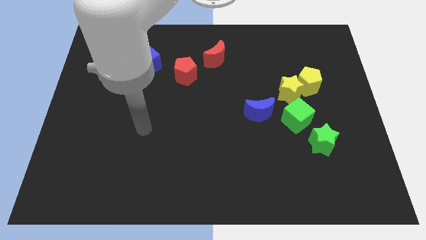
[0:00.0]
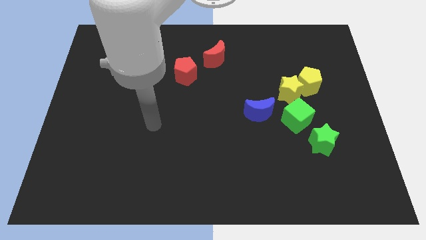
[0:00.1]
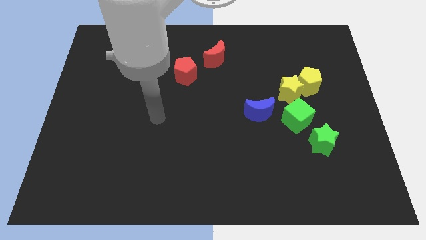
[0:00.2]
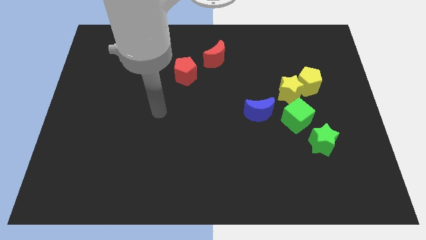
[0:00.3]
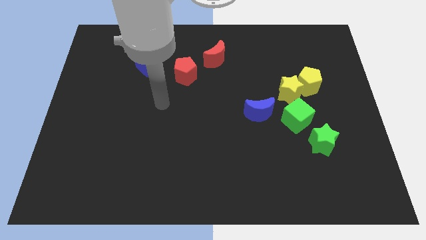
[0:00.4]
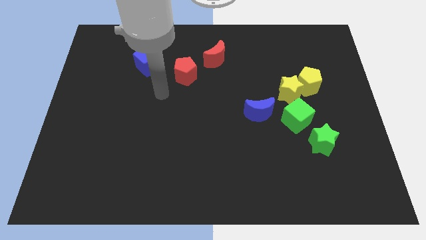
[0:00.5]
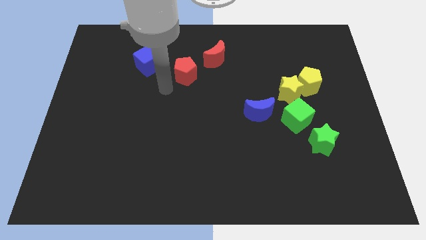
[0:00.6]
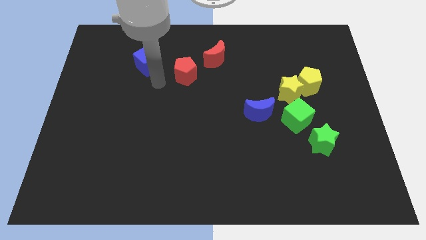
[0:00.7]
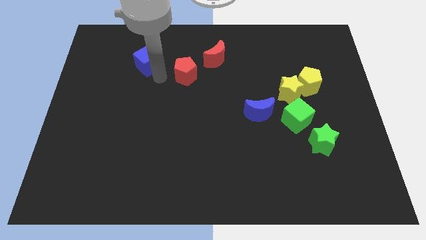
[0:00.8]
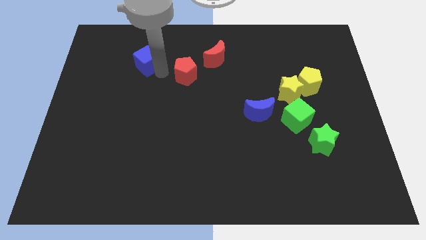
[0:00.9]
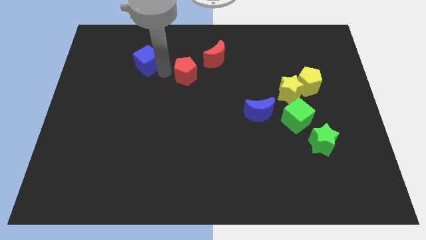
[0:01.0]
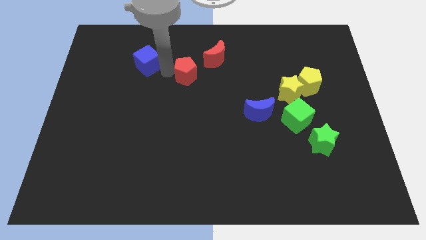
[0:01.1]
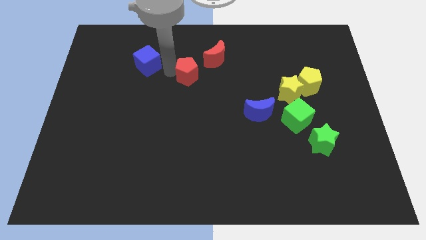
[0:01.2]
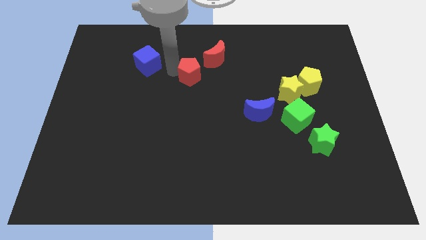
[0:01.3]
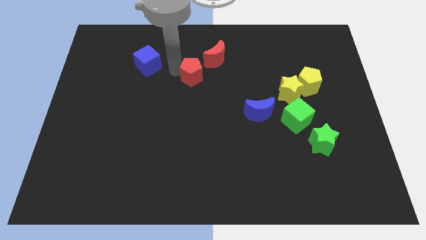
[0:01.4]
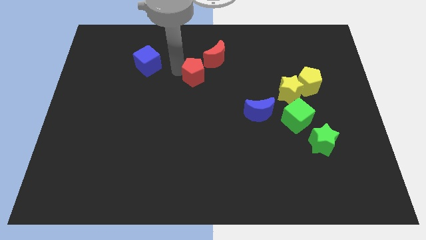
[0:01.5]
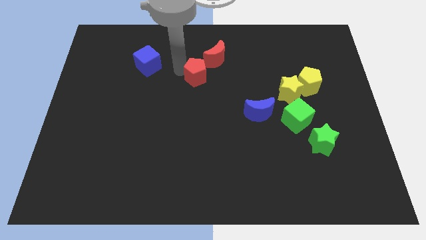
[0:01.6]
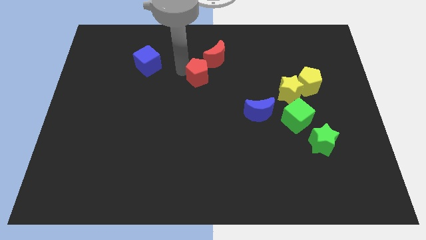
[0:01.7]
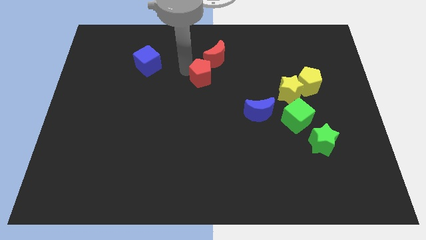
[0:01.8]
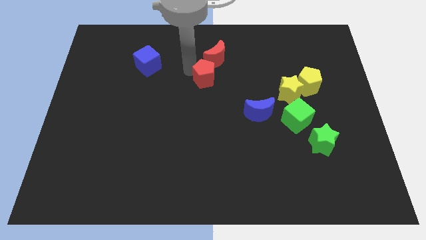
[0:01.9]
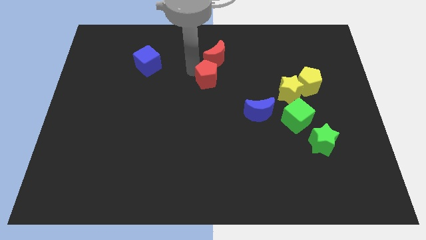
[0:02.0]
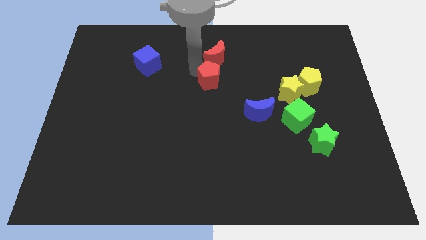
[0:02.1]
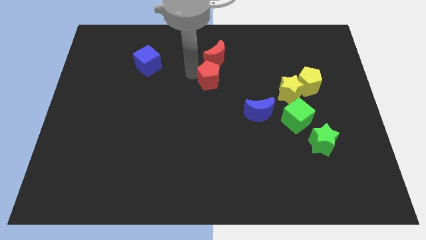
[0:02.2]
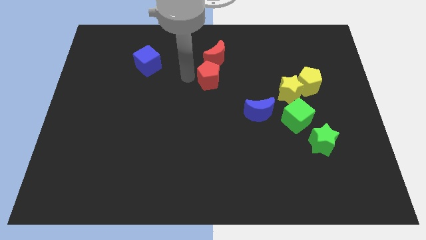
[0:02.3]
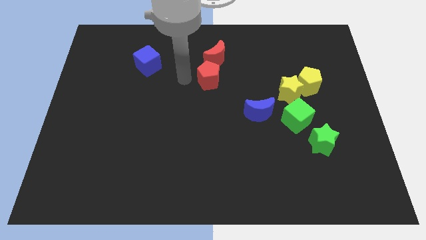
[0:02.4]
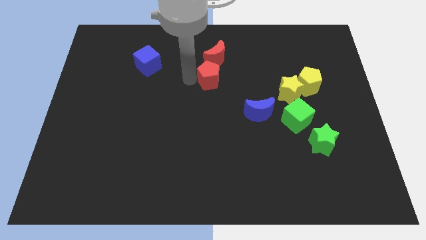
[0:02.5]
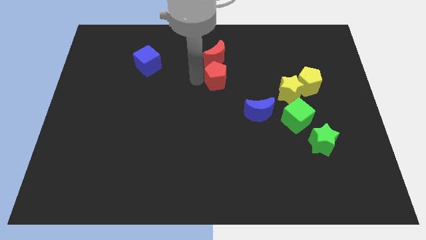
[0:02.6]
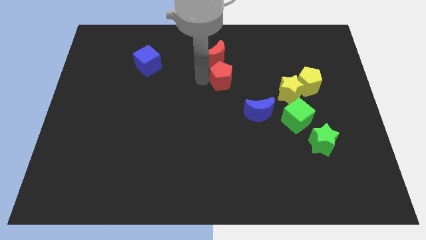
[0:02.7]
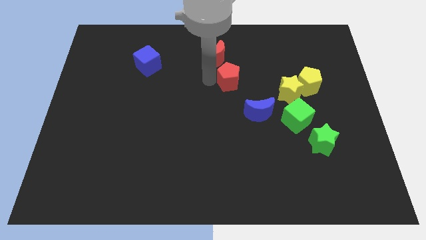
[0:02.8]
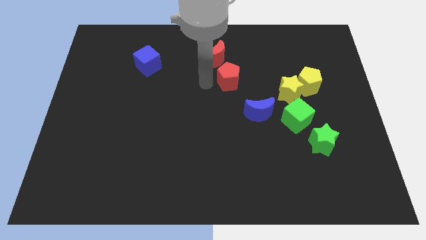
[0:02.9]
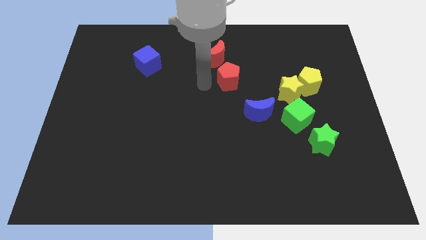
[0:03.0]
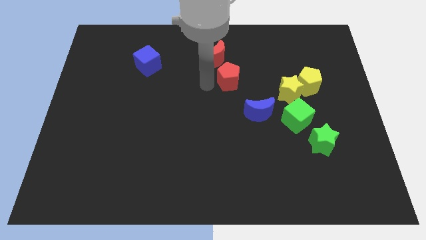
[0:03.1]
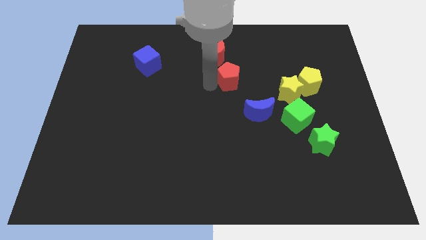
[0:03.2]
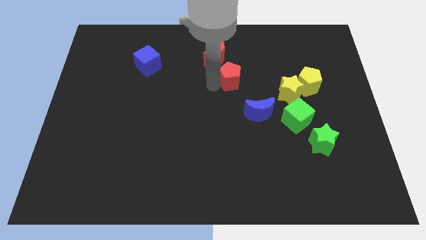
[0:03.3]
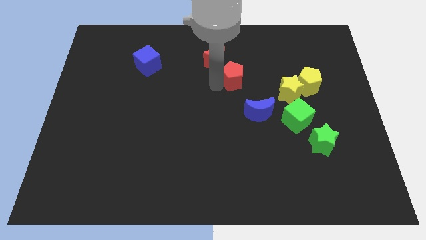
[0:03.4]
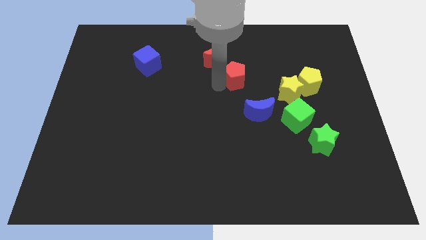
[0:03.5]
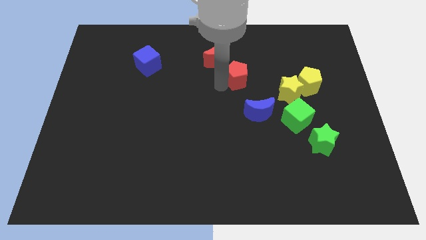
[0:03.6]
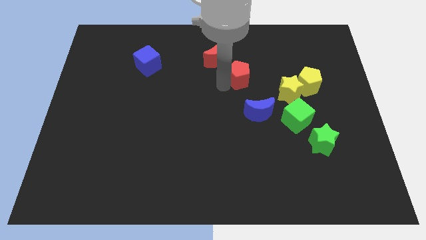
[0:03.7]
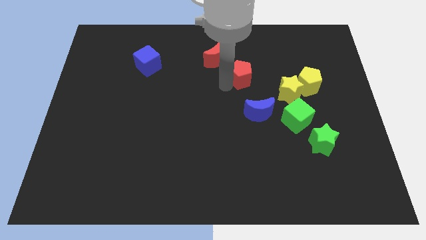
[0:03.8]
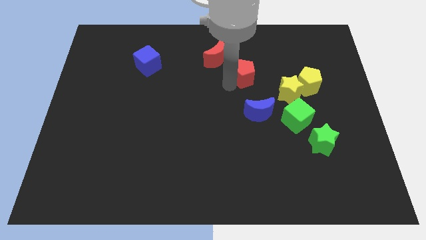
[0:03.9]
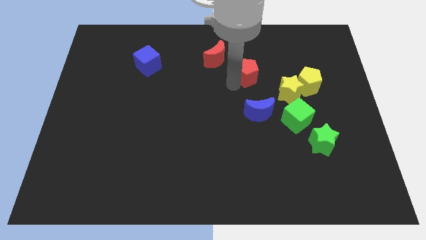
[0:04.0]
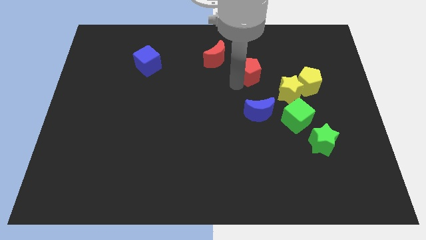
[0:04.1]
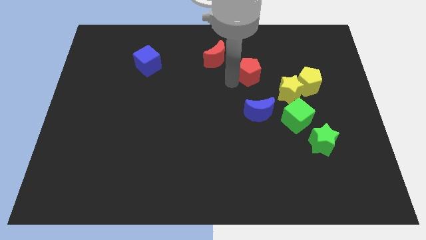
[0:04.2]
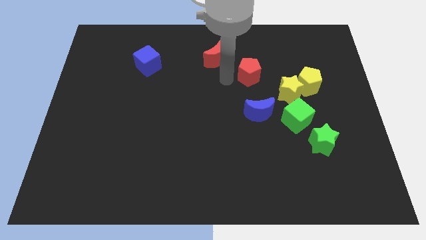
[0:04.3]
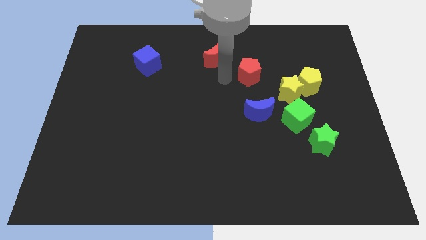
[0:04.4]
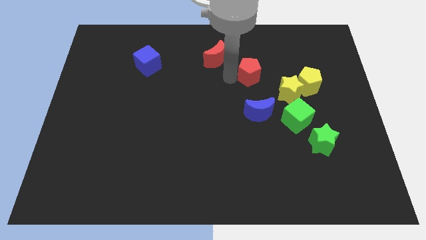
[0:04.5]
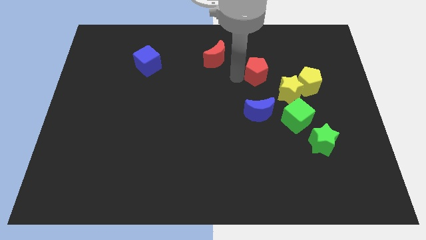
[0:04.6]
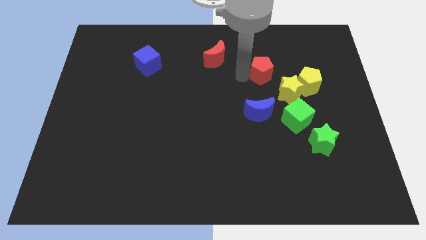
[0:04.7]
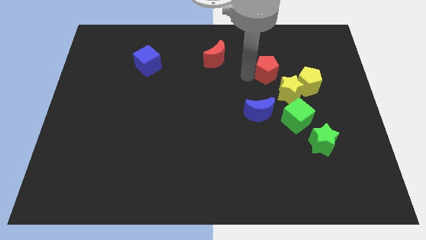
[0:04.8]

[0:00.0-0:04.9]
push the red pentagon right

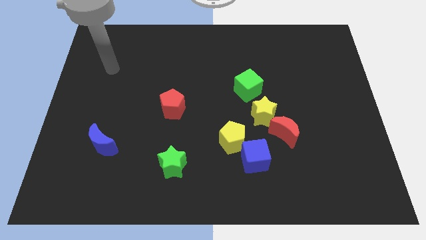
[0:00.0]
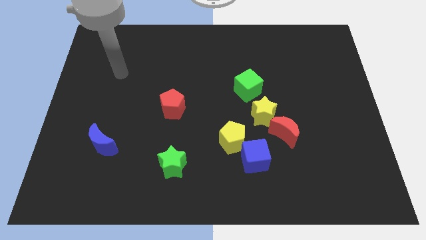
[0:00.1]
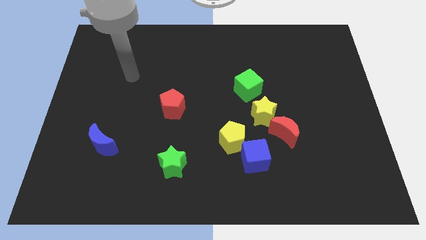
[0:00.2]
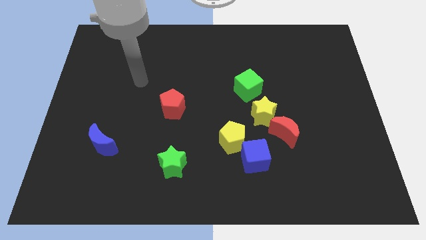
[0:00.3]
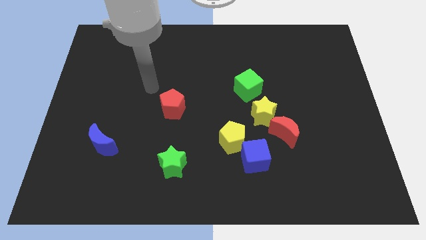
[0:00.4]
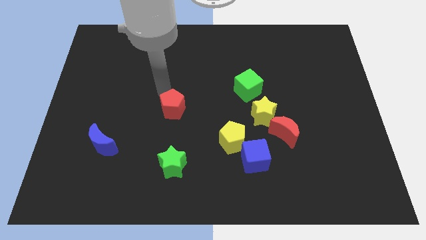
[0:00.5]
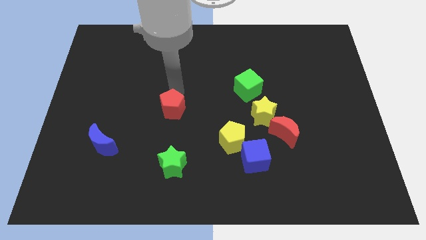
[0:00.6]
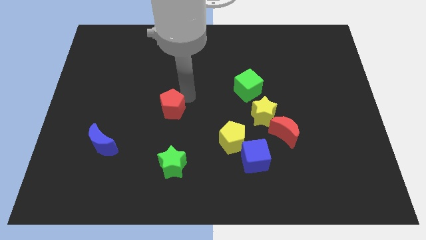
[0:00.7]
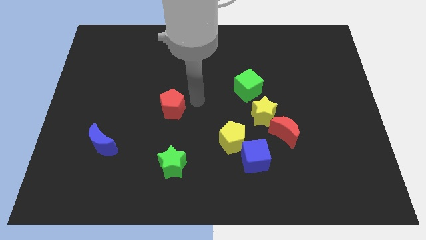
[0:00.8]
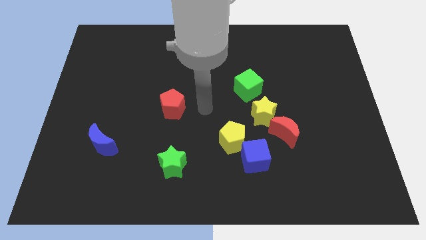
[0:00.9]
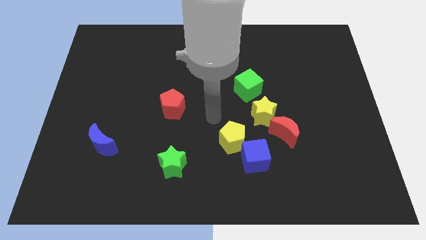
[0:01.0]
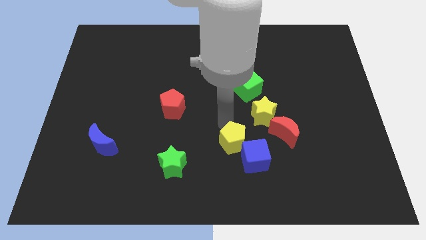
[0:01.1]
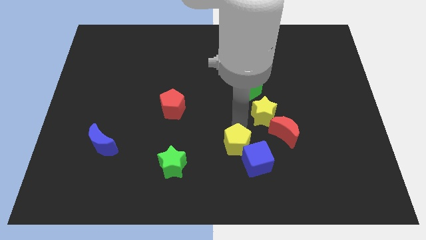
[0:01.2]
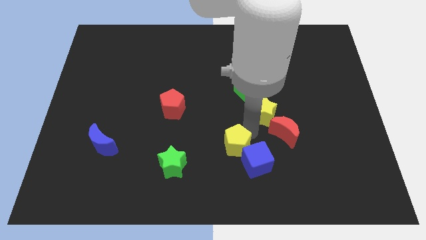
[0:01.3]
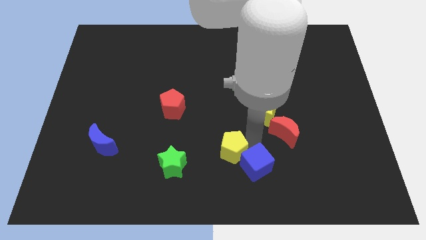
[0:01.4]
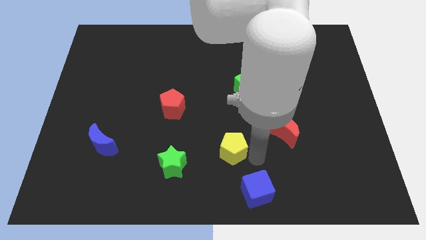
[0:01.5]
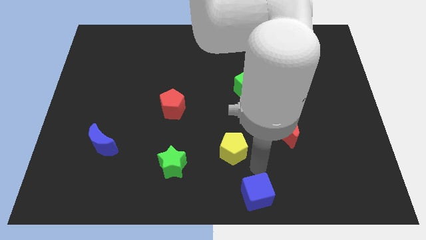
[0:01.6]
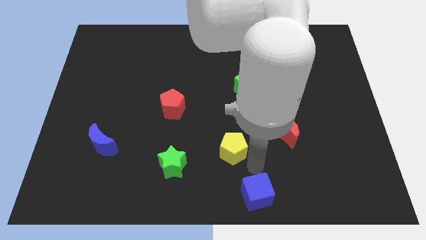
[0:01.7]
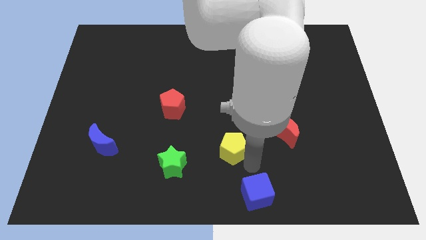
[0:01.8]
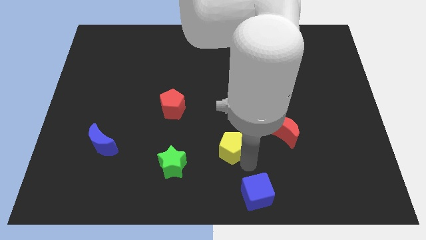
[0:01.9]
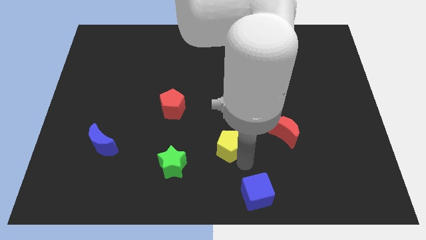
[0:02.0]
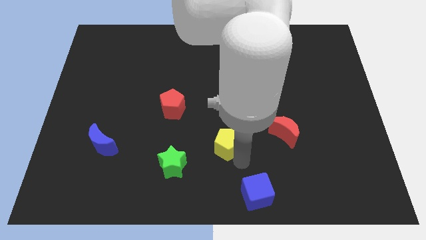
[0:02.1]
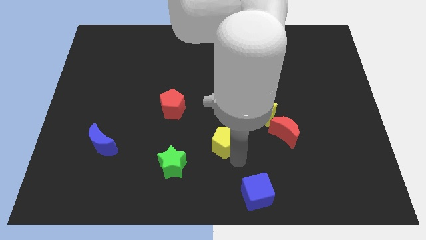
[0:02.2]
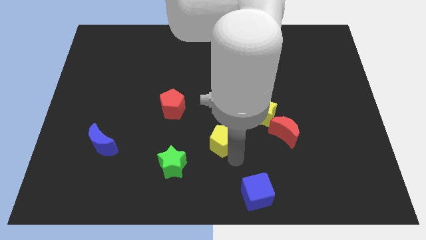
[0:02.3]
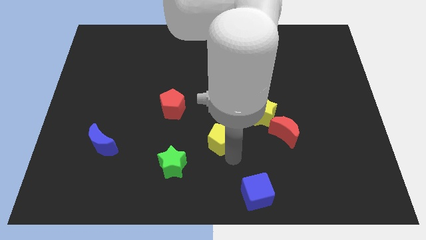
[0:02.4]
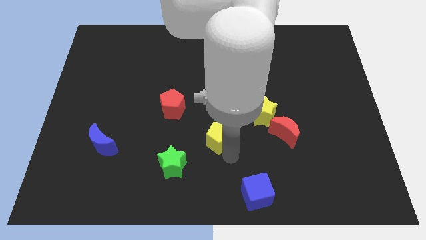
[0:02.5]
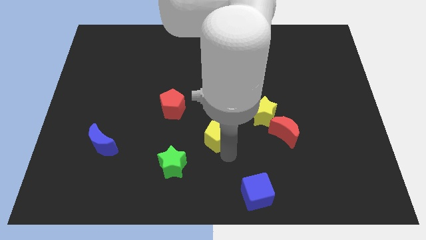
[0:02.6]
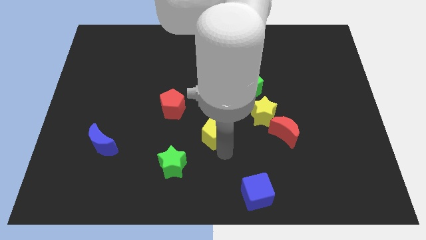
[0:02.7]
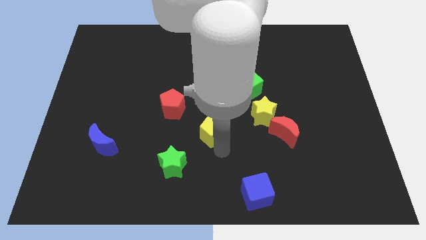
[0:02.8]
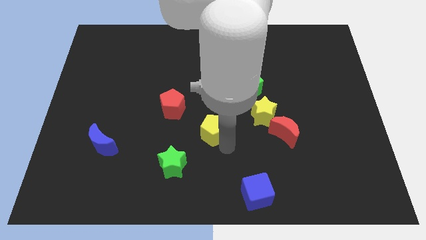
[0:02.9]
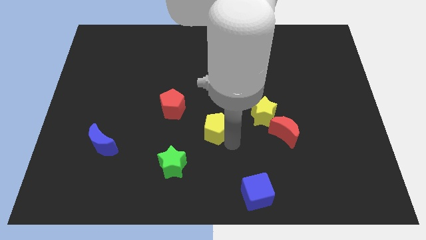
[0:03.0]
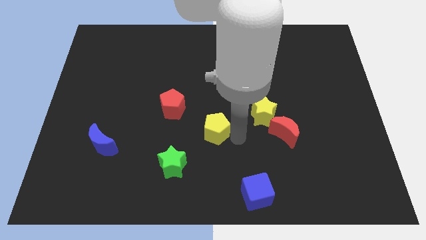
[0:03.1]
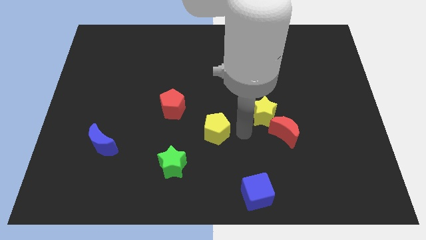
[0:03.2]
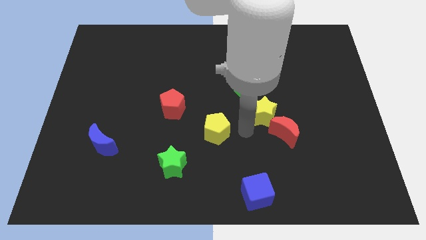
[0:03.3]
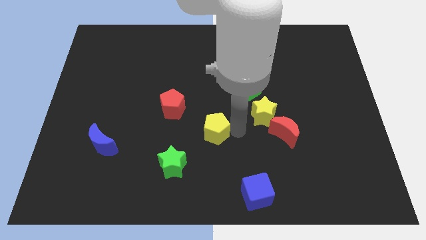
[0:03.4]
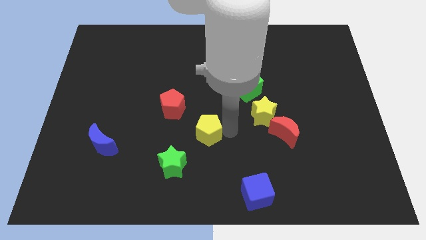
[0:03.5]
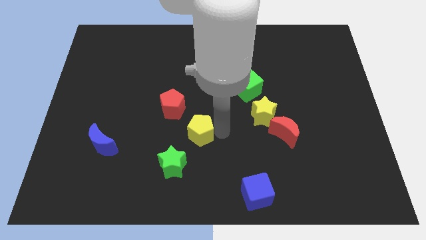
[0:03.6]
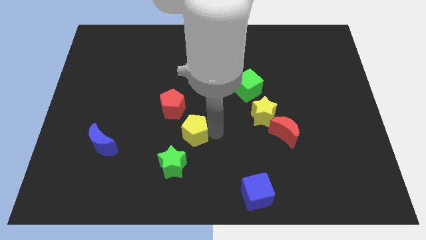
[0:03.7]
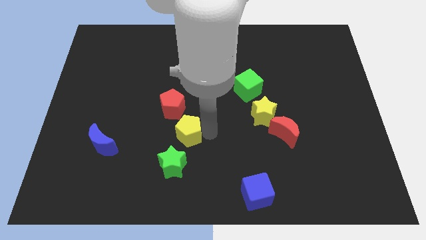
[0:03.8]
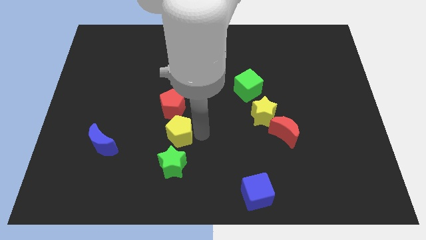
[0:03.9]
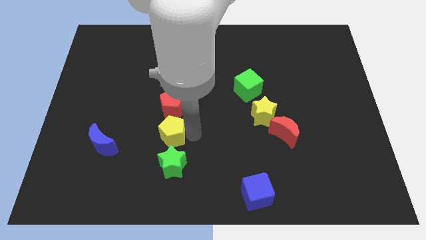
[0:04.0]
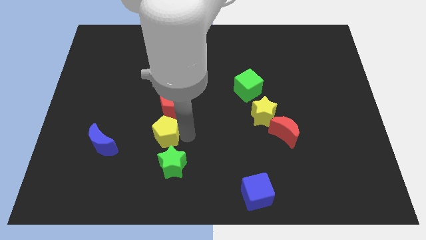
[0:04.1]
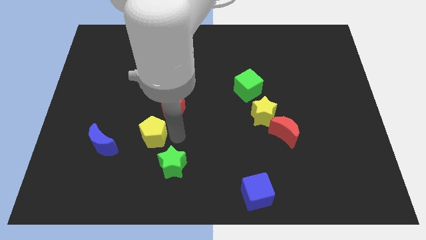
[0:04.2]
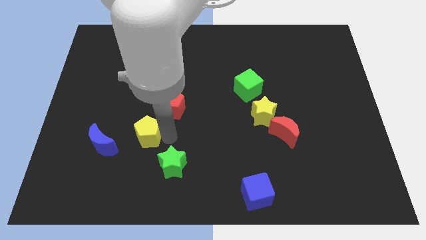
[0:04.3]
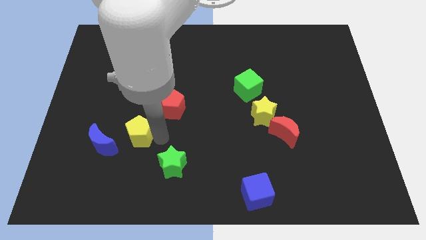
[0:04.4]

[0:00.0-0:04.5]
slide the yellow pentagon to the left
